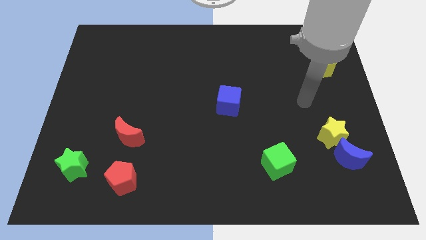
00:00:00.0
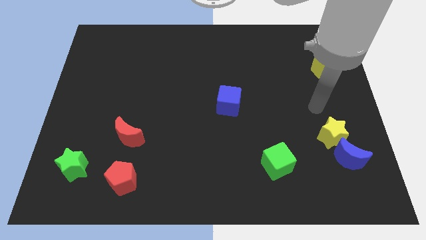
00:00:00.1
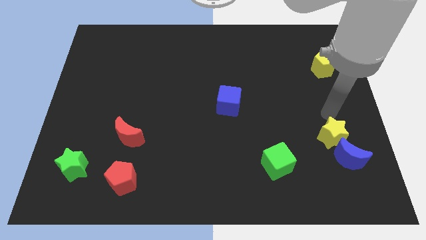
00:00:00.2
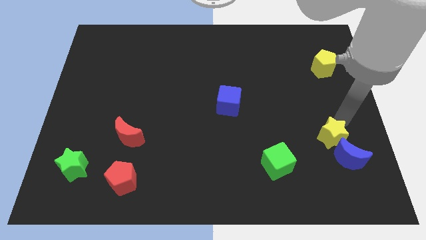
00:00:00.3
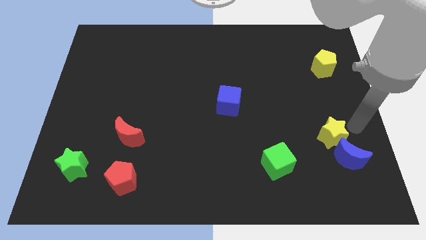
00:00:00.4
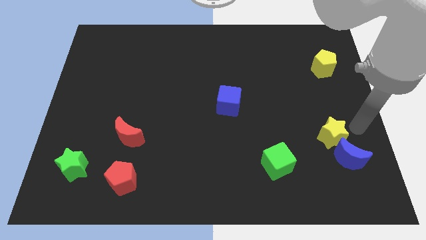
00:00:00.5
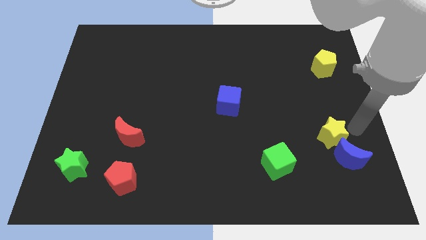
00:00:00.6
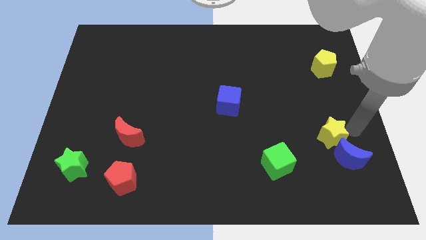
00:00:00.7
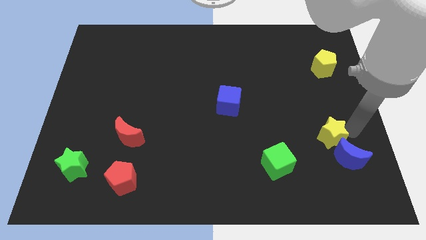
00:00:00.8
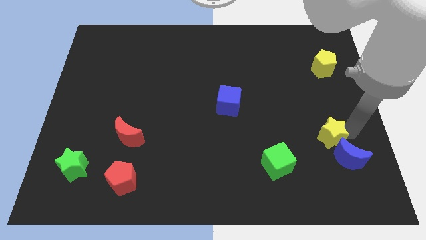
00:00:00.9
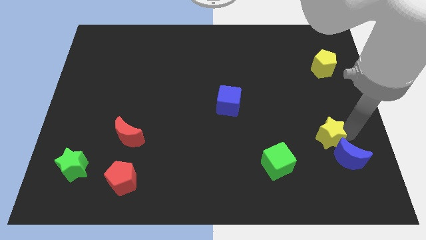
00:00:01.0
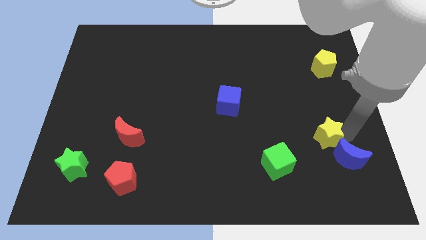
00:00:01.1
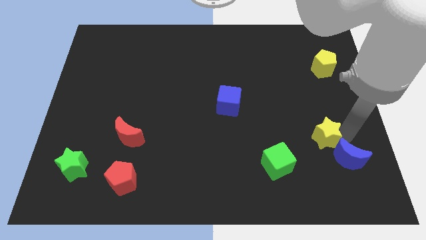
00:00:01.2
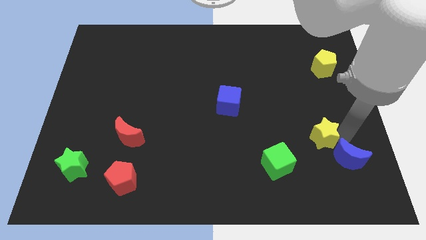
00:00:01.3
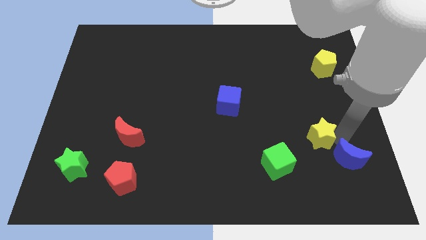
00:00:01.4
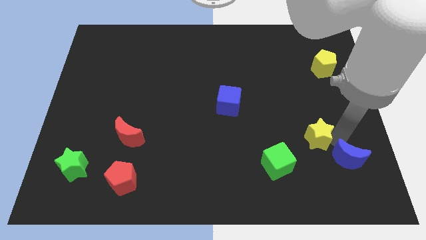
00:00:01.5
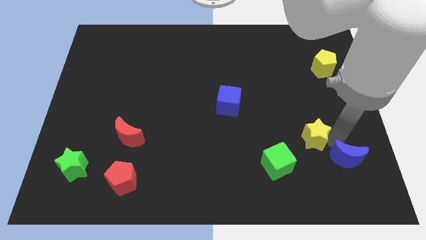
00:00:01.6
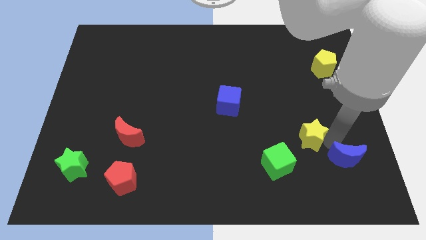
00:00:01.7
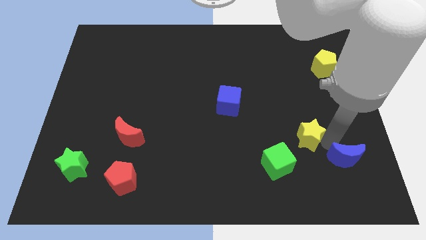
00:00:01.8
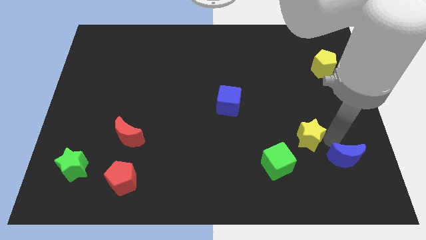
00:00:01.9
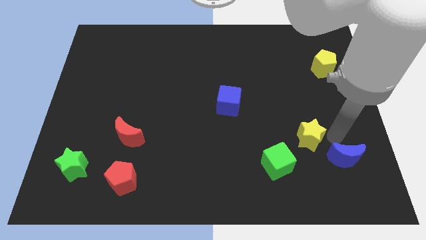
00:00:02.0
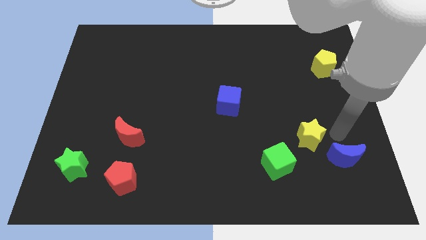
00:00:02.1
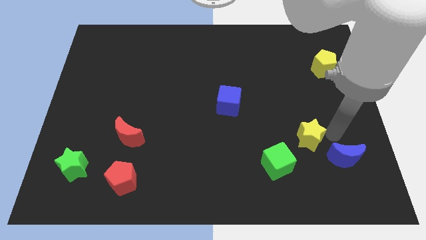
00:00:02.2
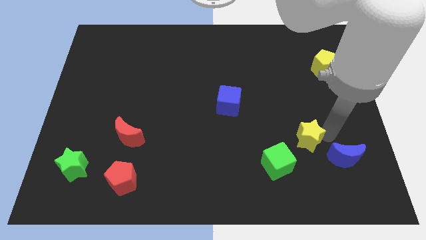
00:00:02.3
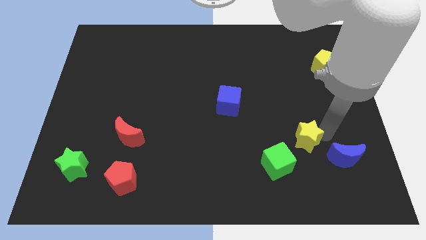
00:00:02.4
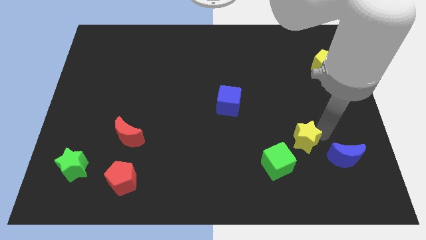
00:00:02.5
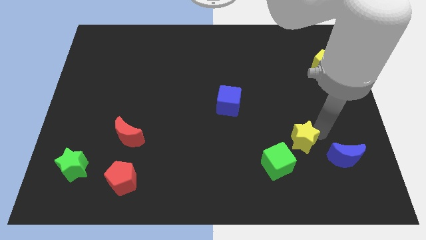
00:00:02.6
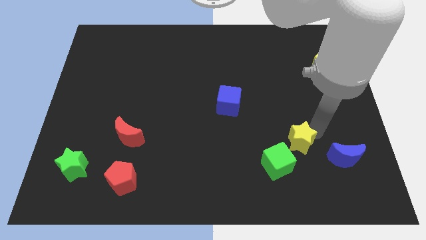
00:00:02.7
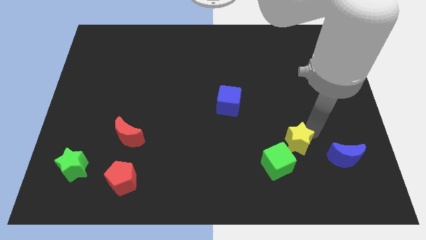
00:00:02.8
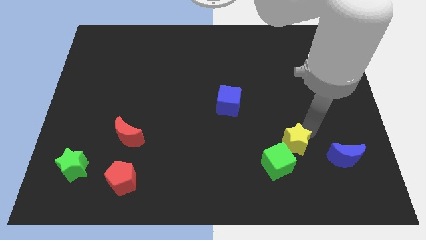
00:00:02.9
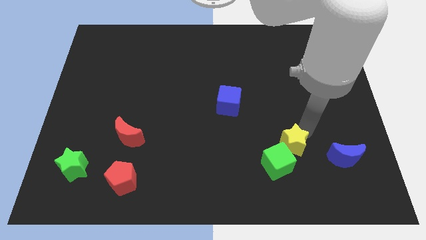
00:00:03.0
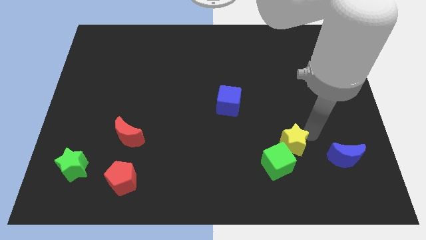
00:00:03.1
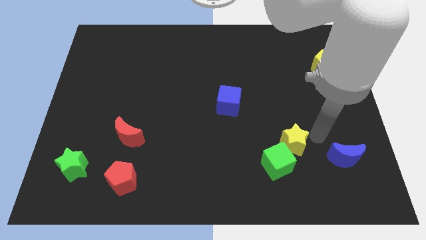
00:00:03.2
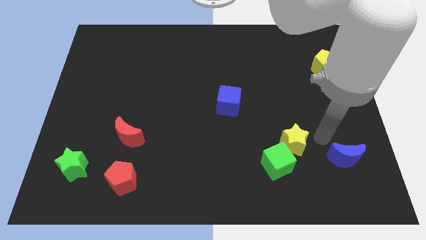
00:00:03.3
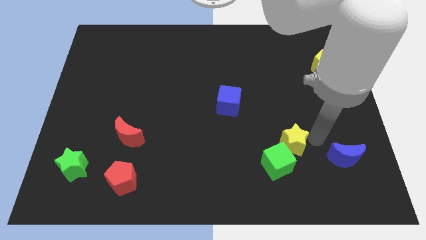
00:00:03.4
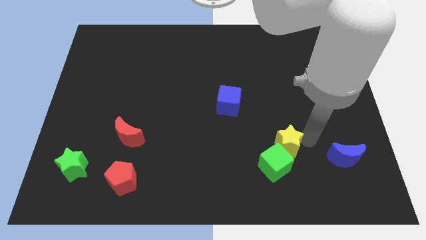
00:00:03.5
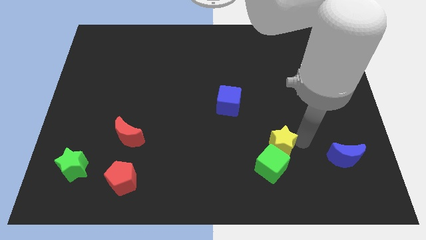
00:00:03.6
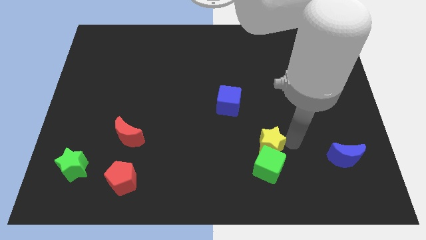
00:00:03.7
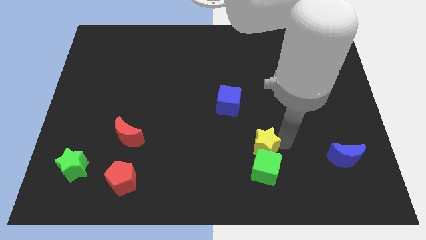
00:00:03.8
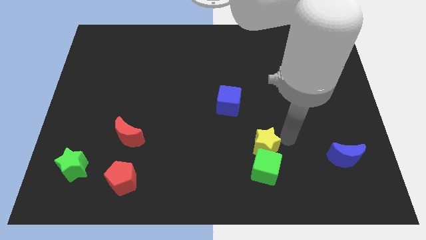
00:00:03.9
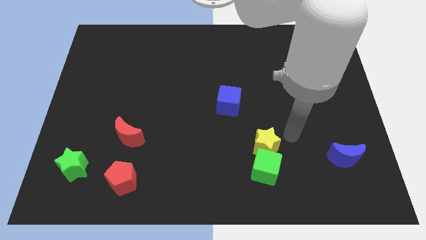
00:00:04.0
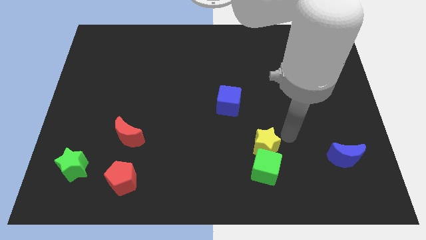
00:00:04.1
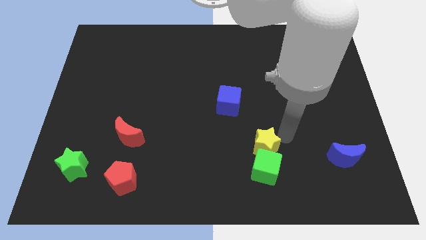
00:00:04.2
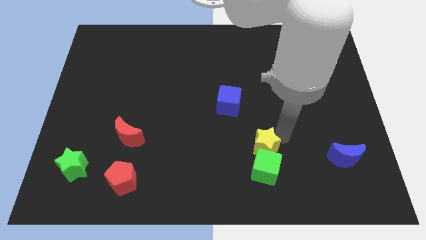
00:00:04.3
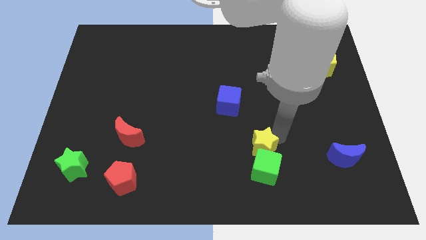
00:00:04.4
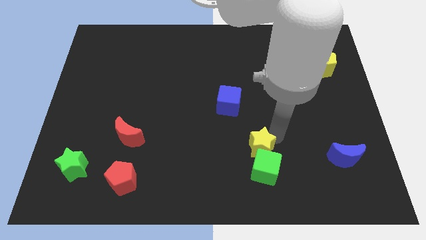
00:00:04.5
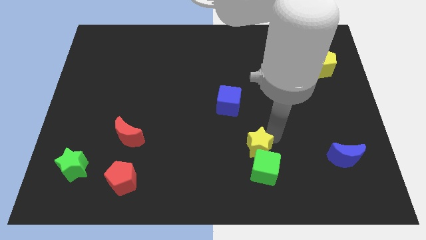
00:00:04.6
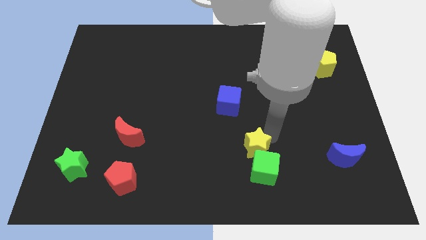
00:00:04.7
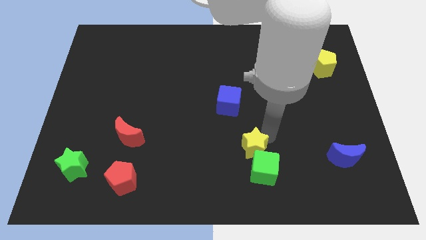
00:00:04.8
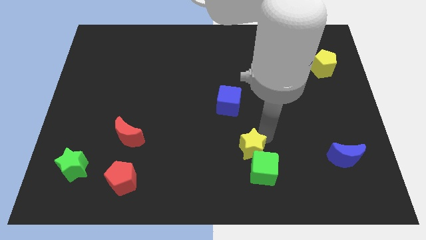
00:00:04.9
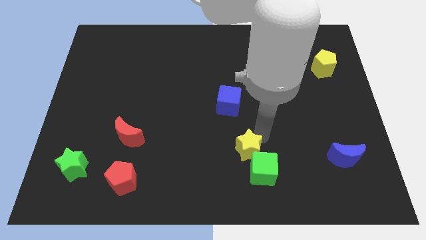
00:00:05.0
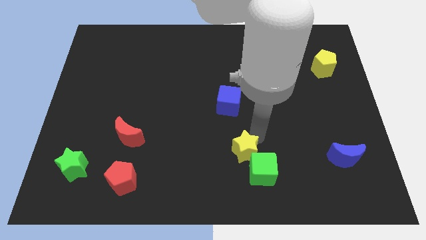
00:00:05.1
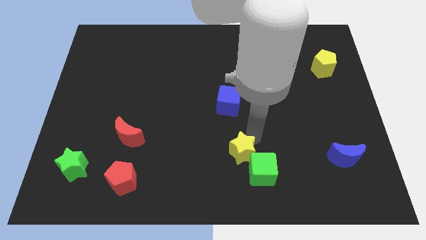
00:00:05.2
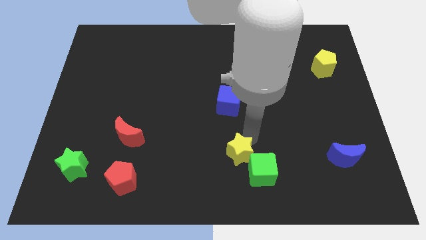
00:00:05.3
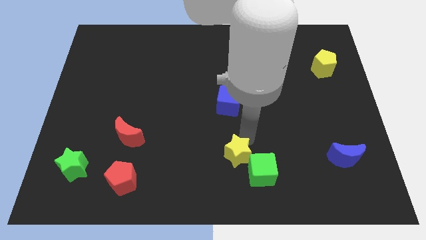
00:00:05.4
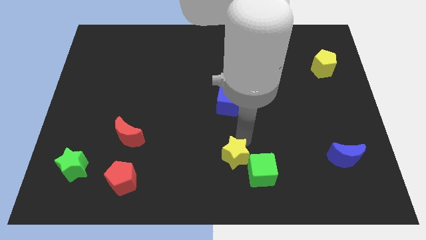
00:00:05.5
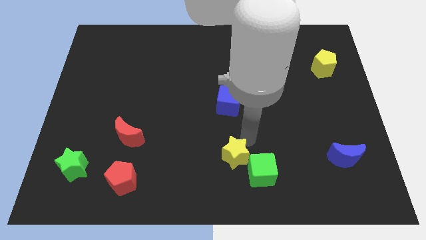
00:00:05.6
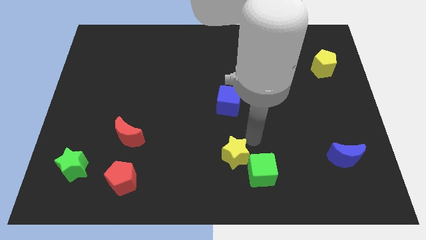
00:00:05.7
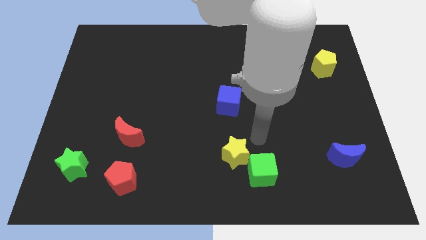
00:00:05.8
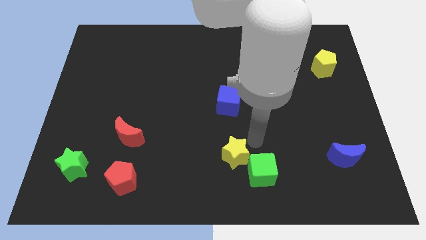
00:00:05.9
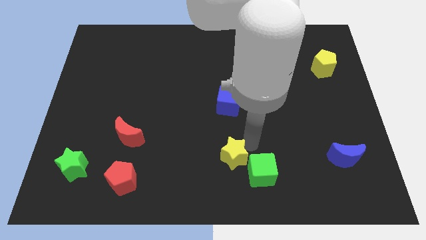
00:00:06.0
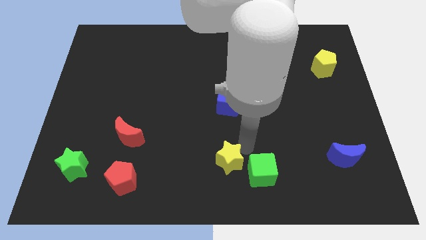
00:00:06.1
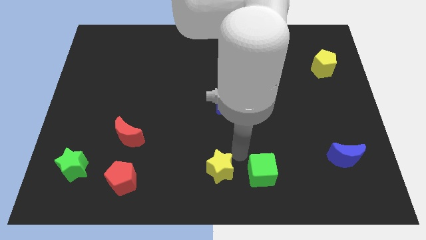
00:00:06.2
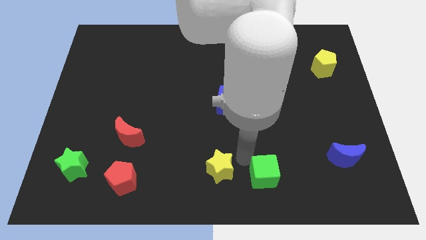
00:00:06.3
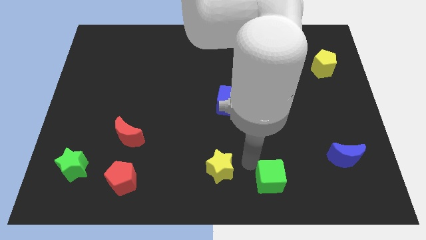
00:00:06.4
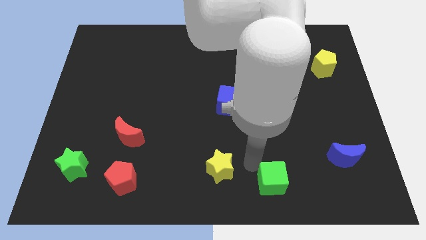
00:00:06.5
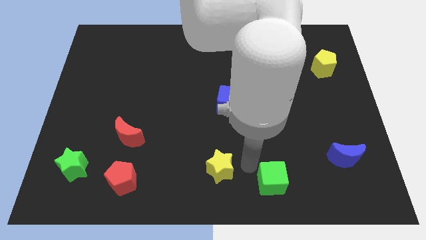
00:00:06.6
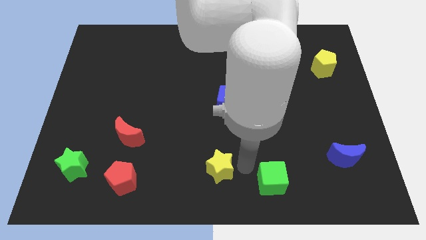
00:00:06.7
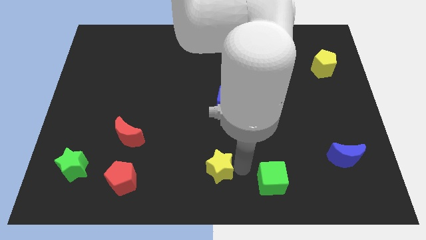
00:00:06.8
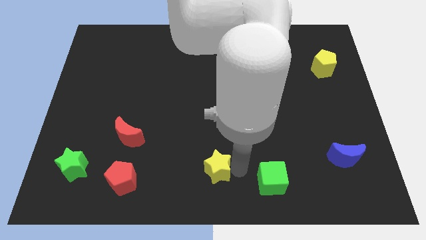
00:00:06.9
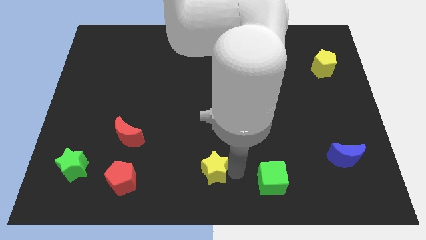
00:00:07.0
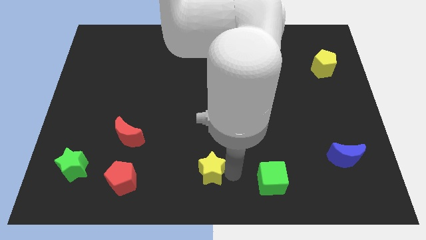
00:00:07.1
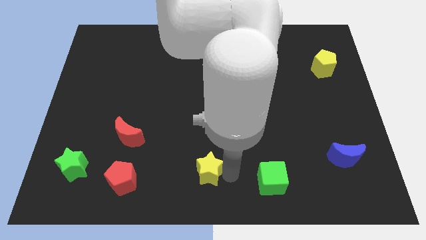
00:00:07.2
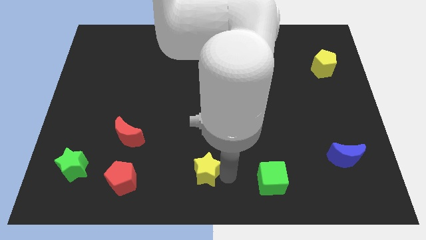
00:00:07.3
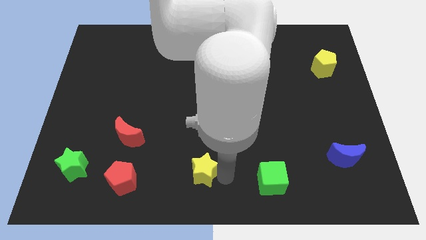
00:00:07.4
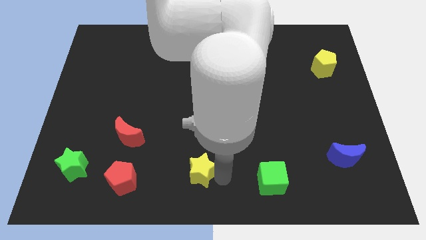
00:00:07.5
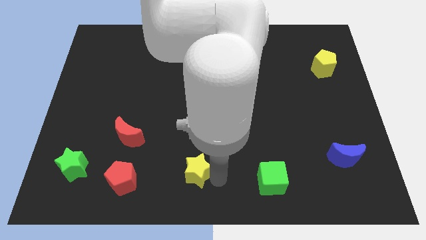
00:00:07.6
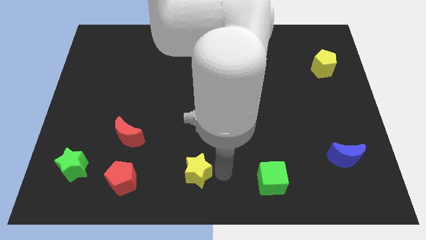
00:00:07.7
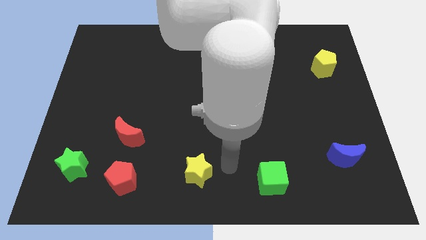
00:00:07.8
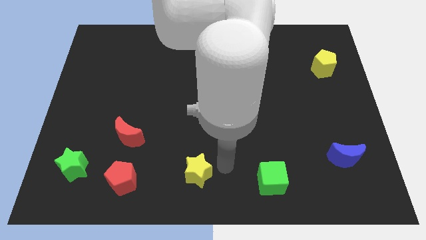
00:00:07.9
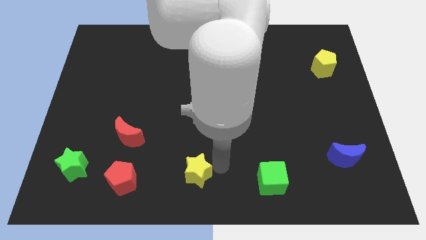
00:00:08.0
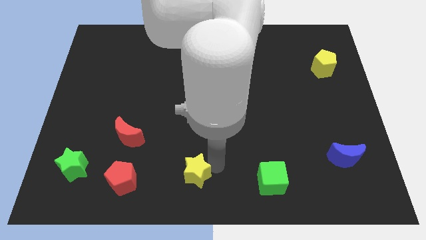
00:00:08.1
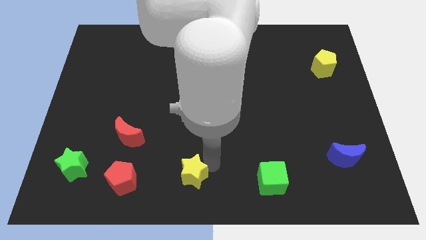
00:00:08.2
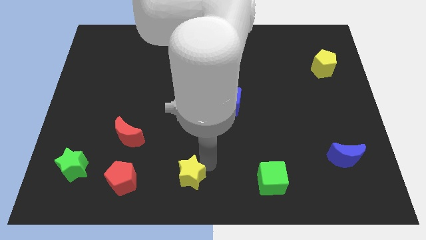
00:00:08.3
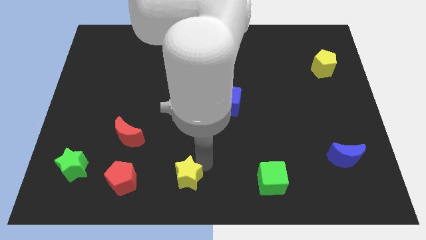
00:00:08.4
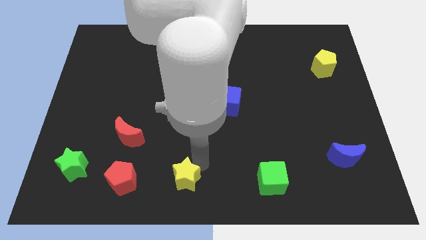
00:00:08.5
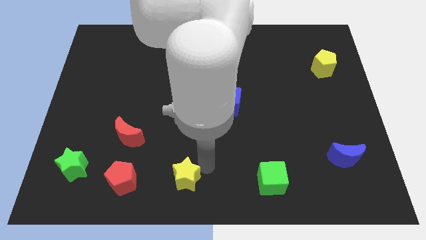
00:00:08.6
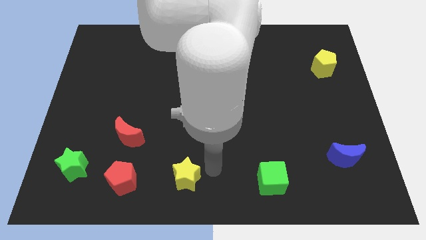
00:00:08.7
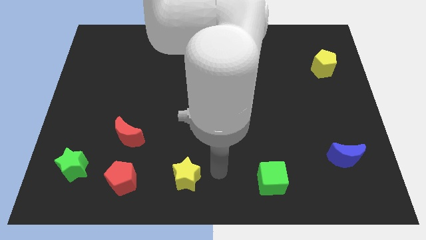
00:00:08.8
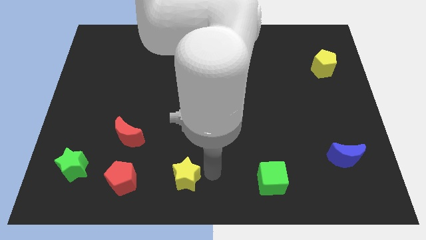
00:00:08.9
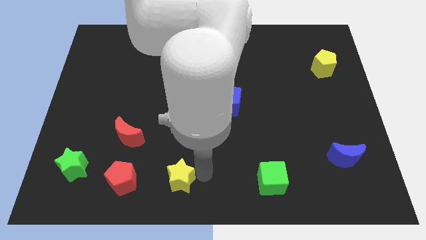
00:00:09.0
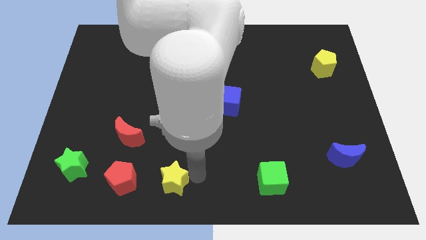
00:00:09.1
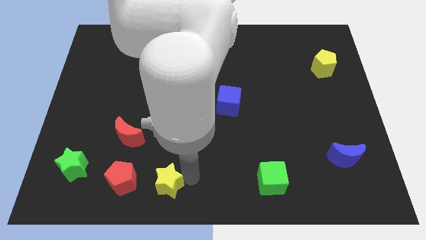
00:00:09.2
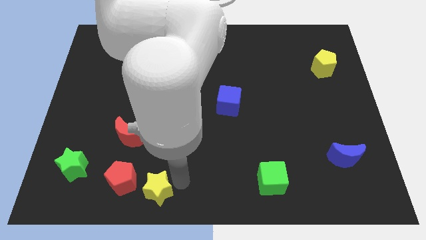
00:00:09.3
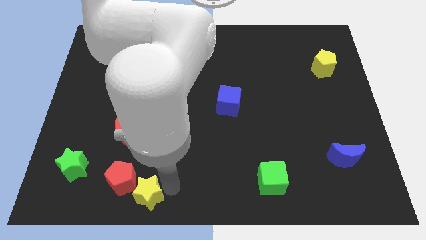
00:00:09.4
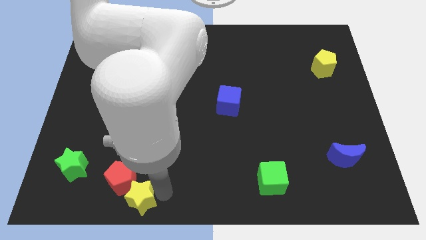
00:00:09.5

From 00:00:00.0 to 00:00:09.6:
move the yellow star to the red pentagon
